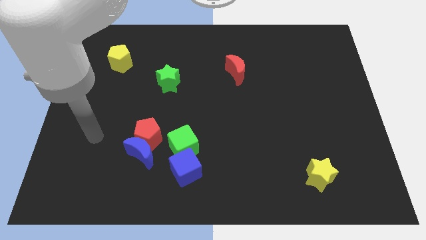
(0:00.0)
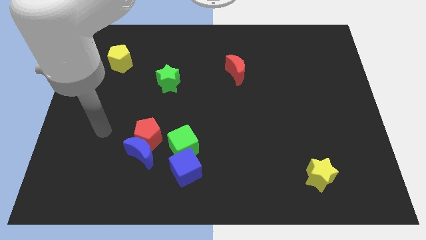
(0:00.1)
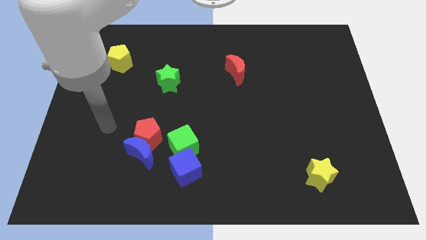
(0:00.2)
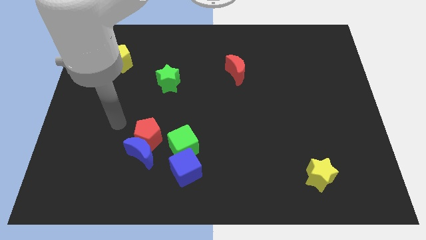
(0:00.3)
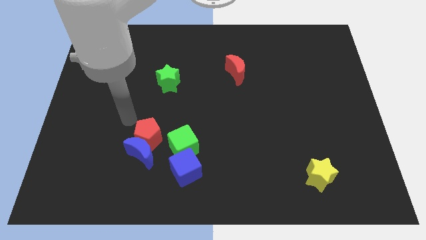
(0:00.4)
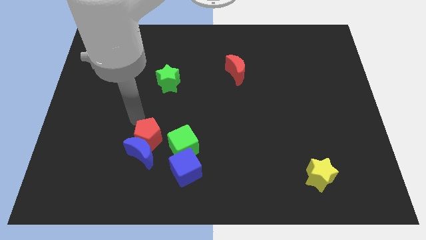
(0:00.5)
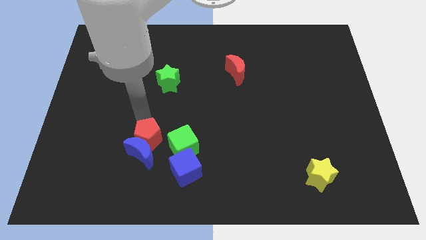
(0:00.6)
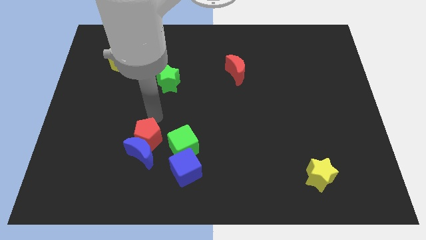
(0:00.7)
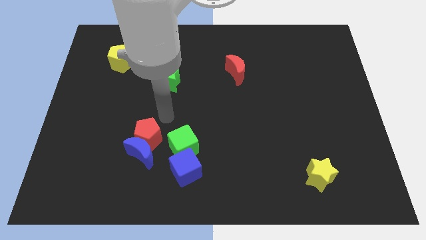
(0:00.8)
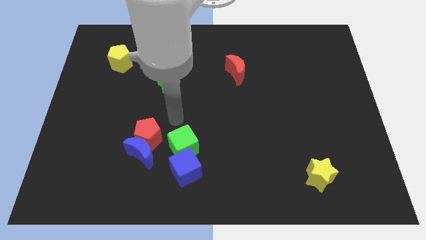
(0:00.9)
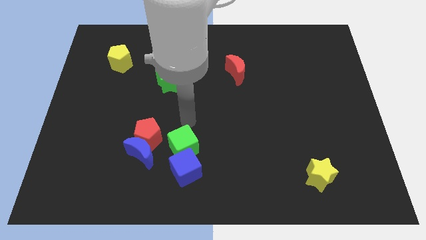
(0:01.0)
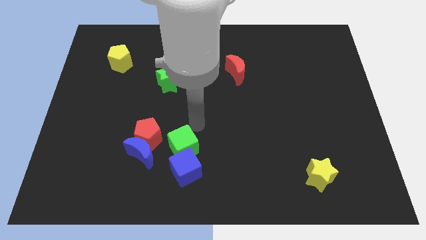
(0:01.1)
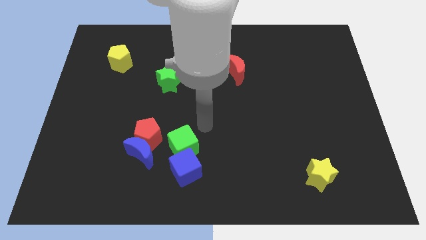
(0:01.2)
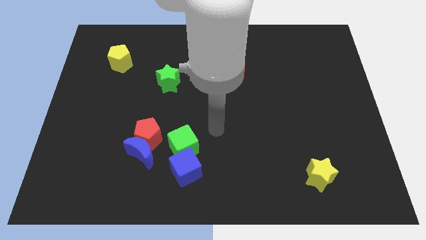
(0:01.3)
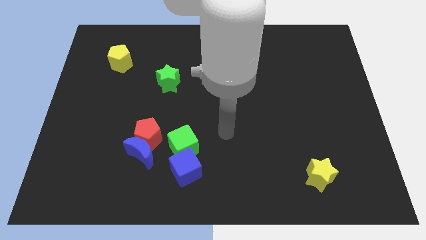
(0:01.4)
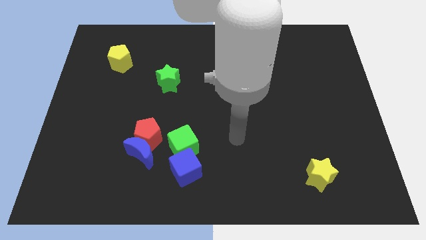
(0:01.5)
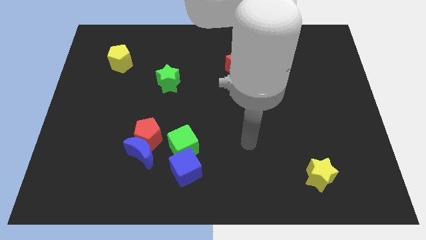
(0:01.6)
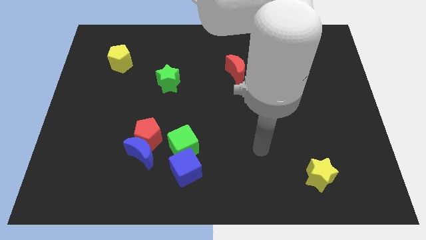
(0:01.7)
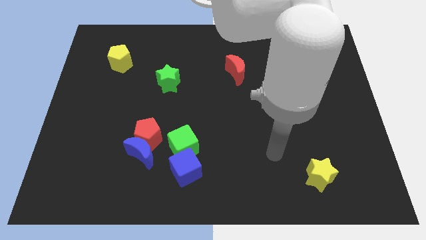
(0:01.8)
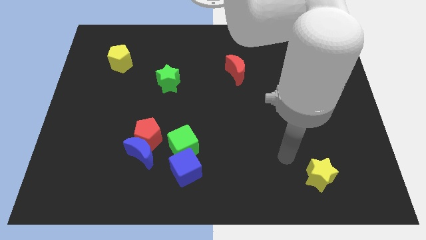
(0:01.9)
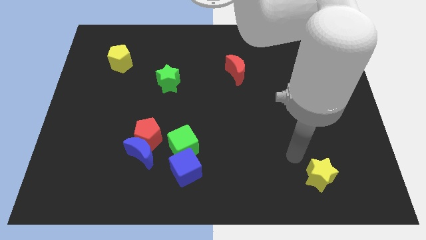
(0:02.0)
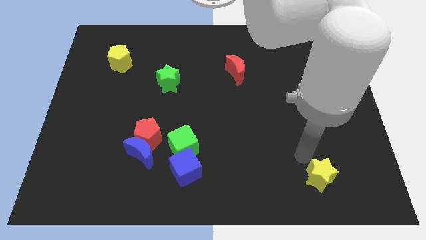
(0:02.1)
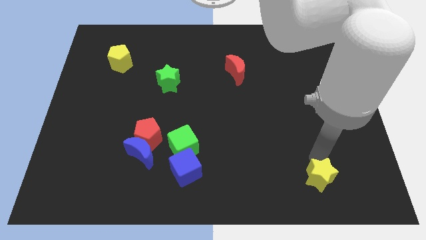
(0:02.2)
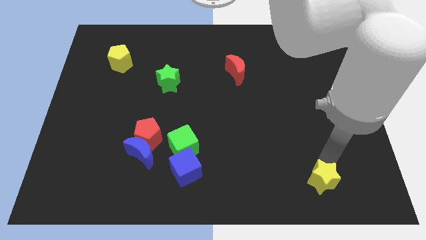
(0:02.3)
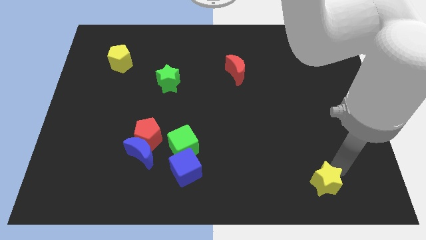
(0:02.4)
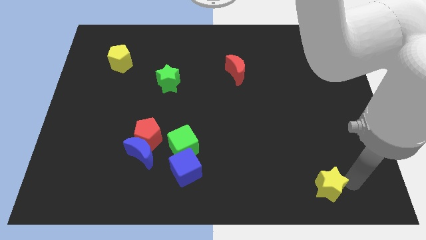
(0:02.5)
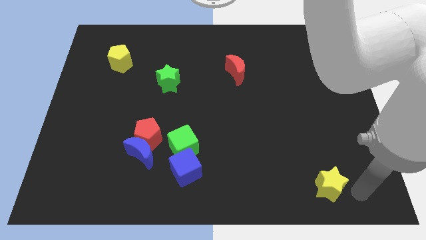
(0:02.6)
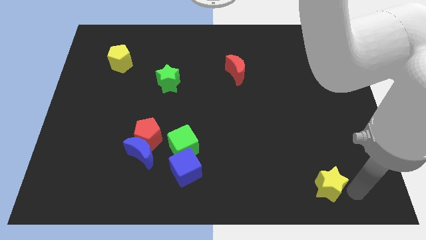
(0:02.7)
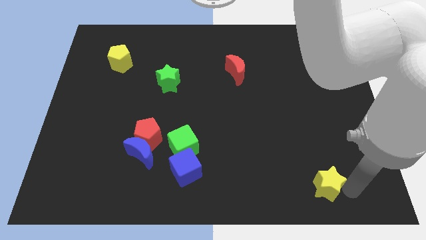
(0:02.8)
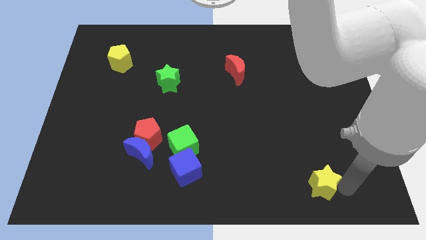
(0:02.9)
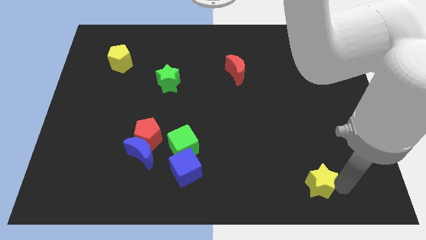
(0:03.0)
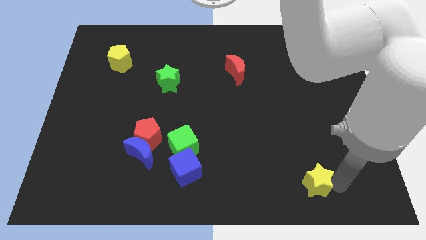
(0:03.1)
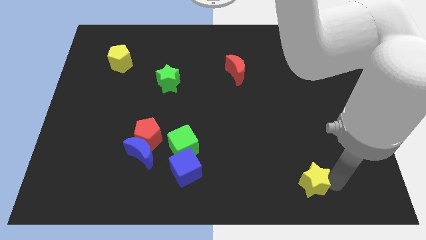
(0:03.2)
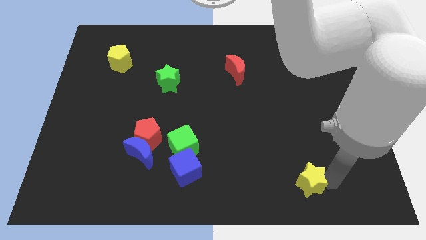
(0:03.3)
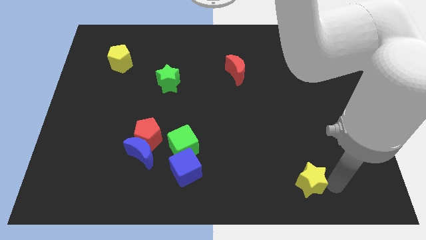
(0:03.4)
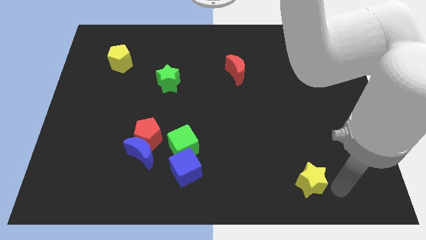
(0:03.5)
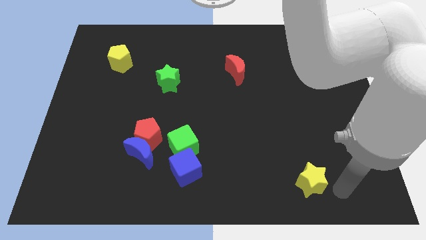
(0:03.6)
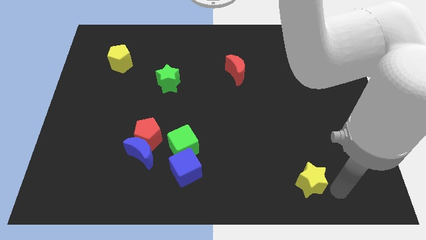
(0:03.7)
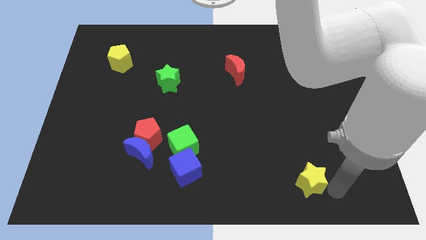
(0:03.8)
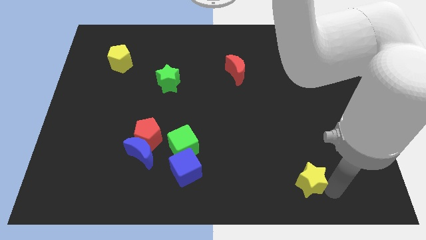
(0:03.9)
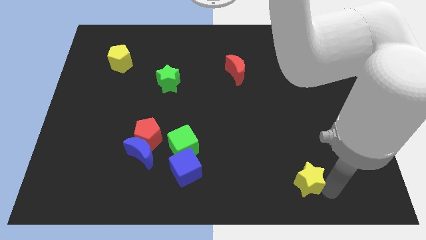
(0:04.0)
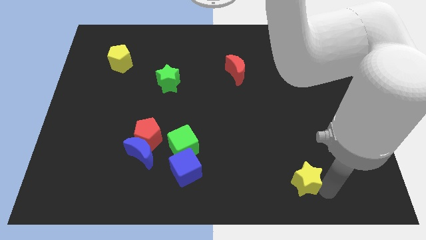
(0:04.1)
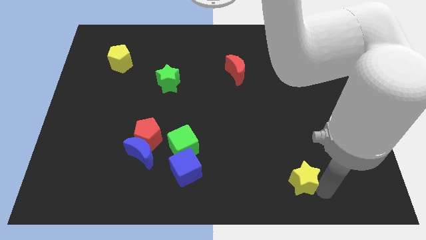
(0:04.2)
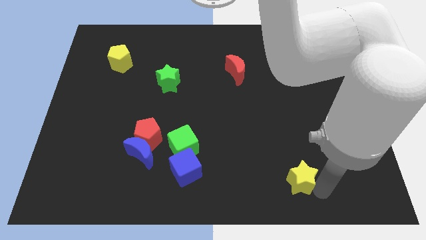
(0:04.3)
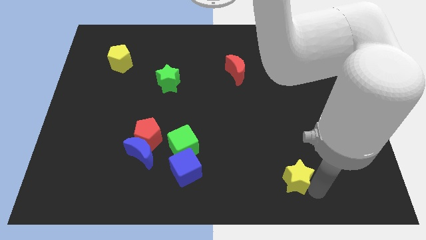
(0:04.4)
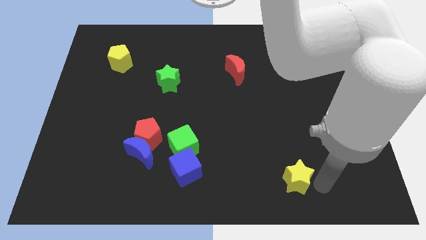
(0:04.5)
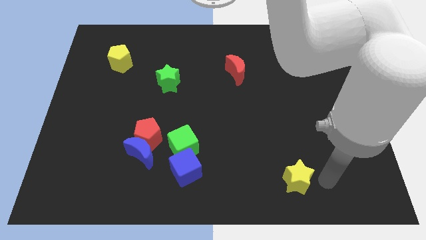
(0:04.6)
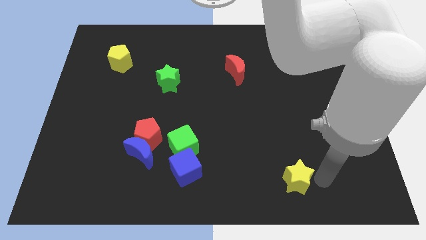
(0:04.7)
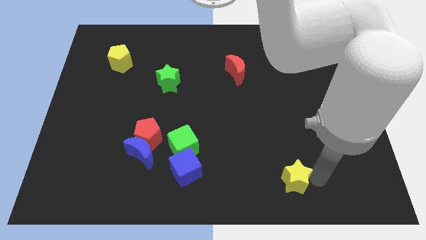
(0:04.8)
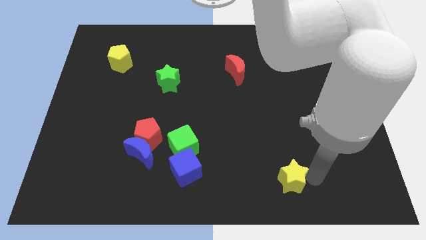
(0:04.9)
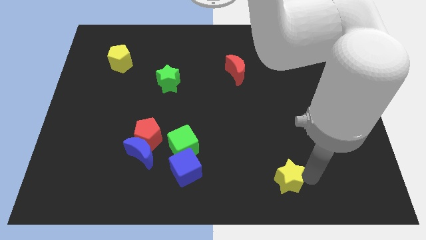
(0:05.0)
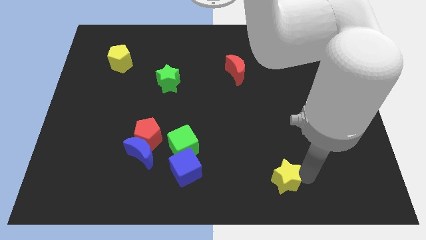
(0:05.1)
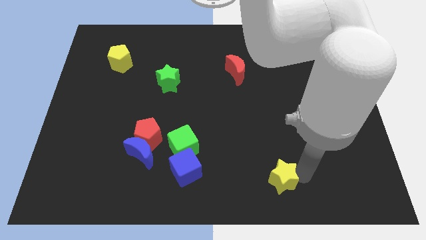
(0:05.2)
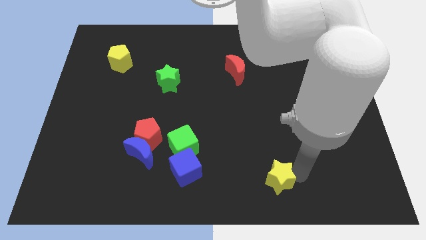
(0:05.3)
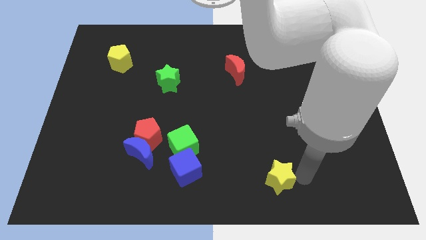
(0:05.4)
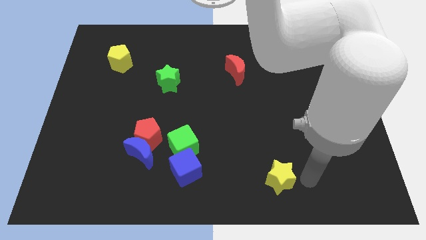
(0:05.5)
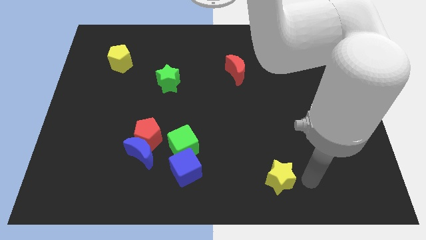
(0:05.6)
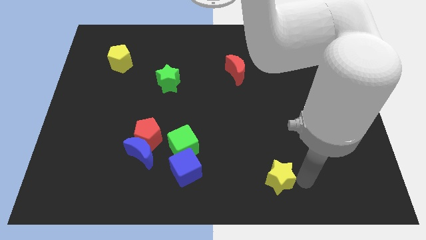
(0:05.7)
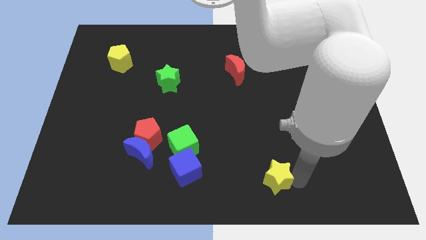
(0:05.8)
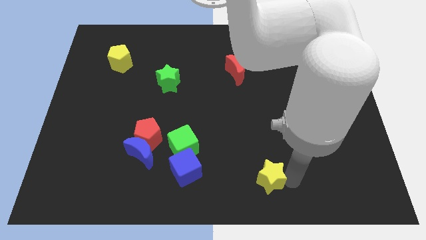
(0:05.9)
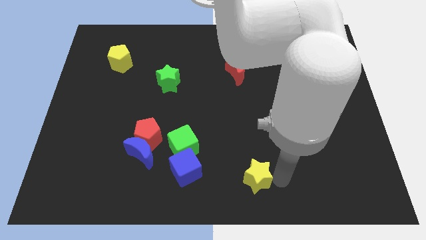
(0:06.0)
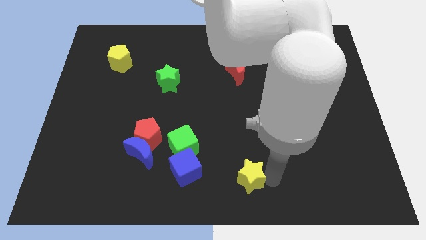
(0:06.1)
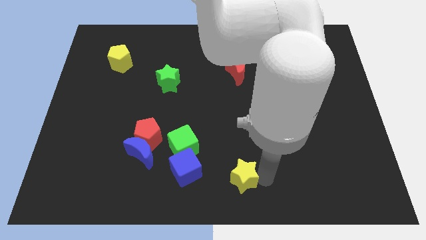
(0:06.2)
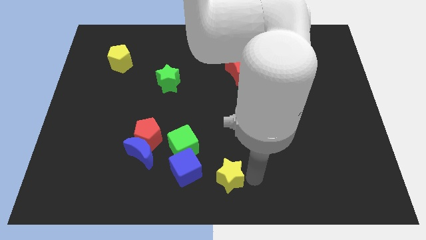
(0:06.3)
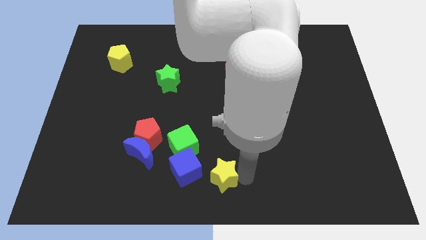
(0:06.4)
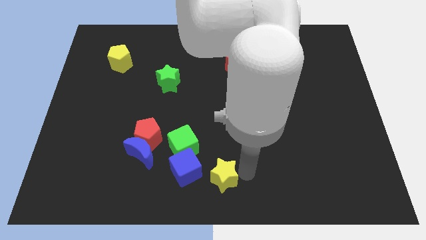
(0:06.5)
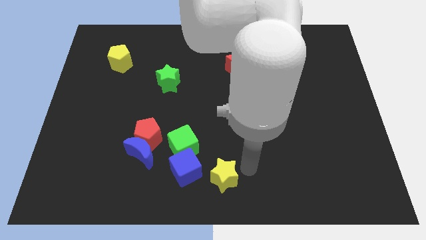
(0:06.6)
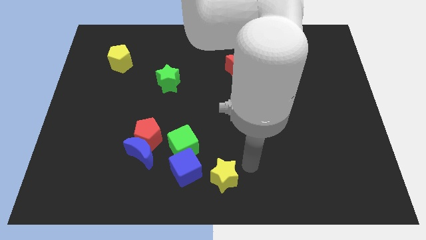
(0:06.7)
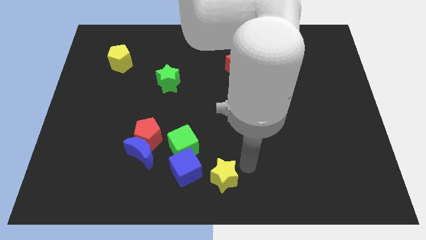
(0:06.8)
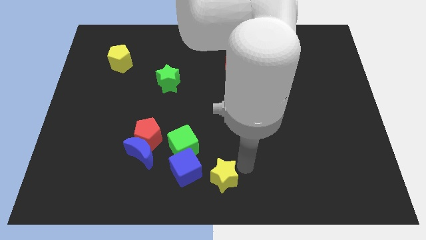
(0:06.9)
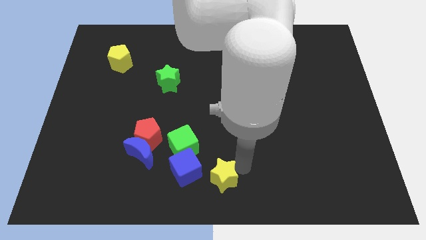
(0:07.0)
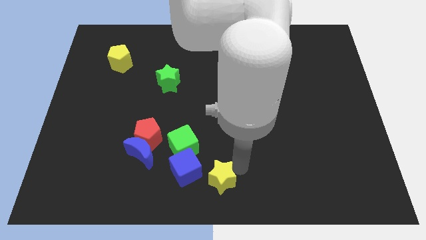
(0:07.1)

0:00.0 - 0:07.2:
move the yellow star left

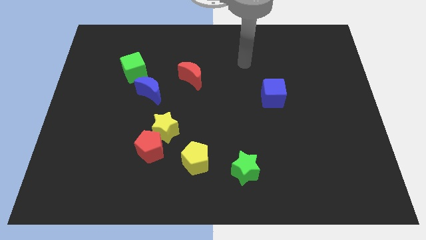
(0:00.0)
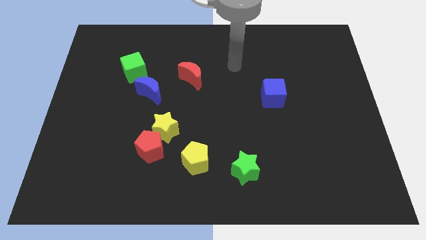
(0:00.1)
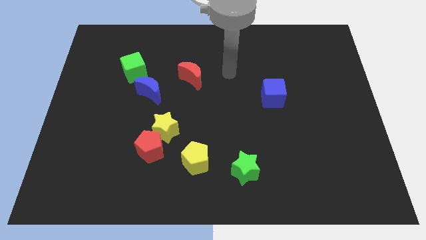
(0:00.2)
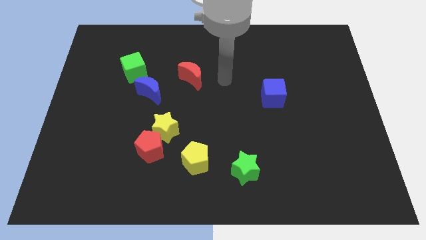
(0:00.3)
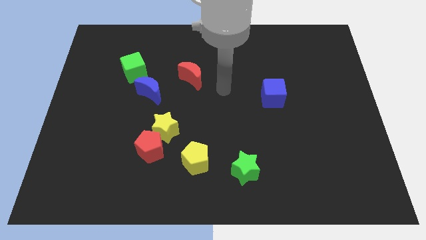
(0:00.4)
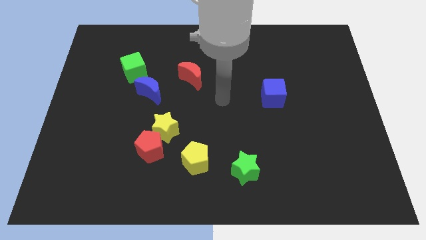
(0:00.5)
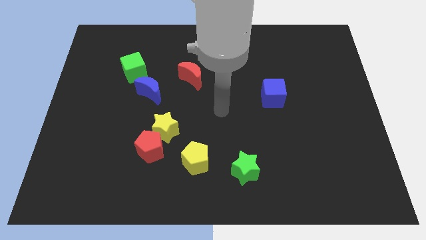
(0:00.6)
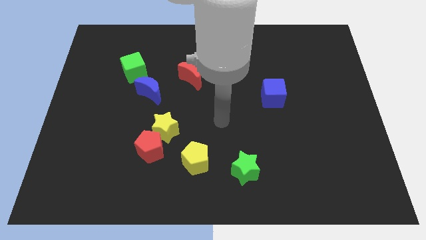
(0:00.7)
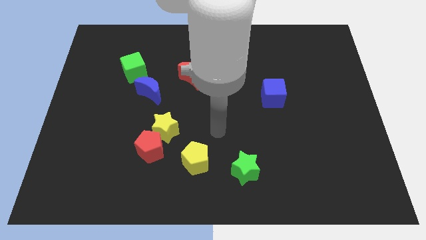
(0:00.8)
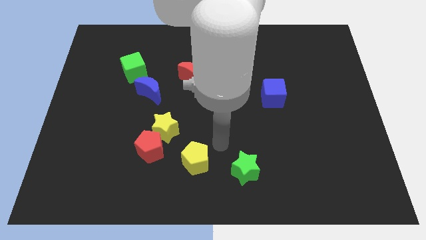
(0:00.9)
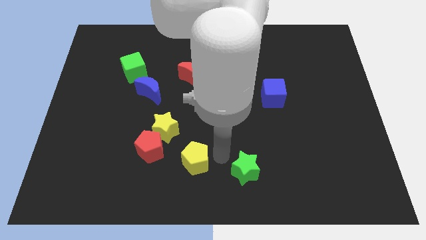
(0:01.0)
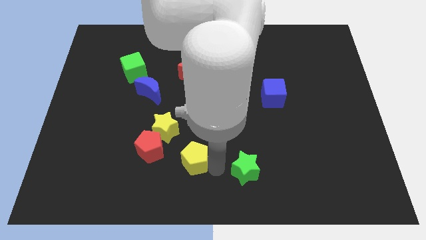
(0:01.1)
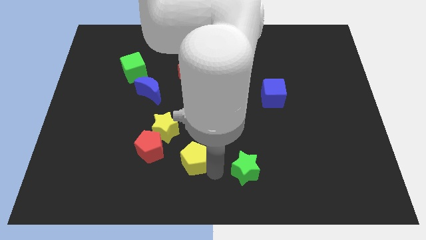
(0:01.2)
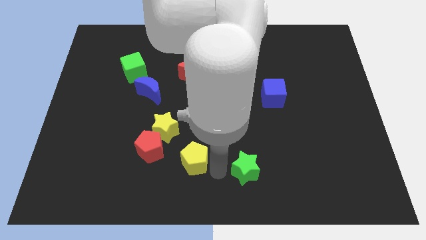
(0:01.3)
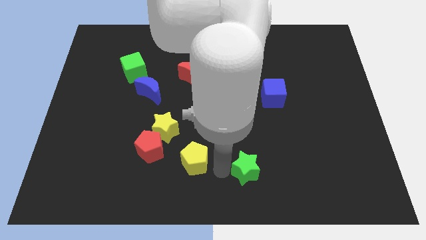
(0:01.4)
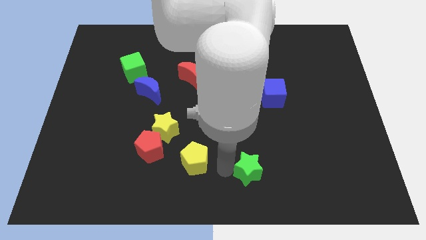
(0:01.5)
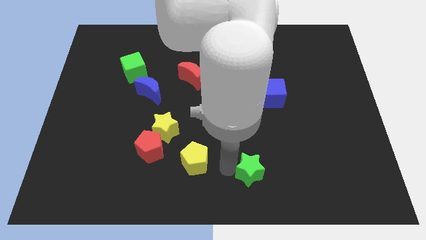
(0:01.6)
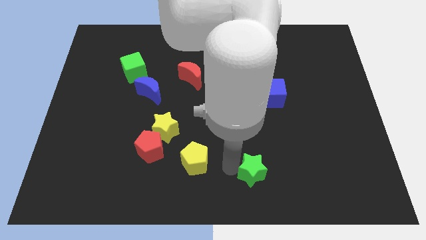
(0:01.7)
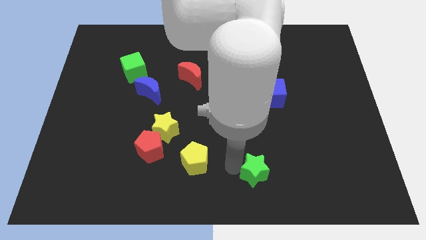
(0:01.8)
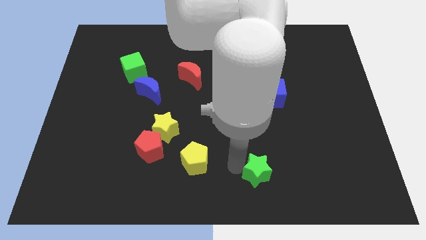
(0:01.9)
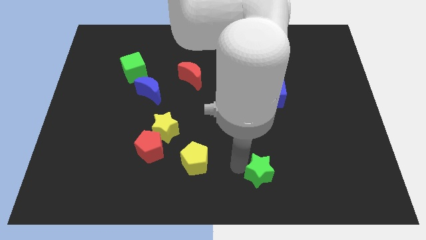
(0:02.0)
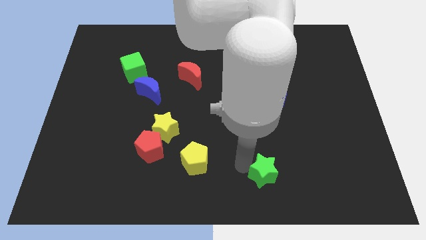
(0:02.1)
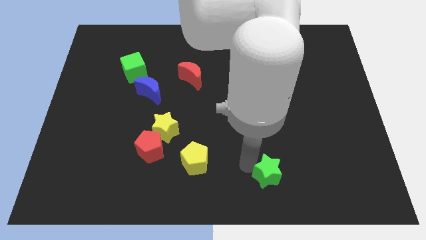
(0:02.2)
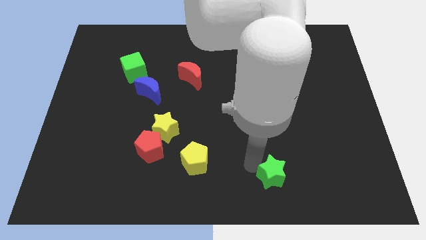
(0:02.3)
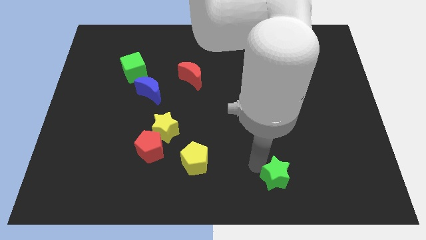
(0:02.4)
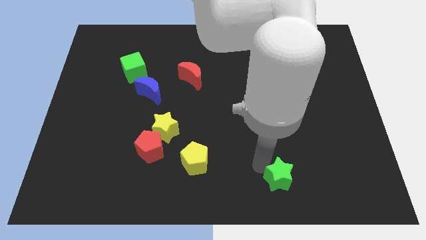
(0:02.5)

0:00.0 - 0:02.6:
push the green star a little to the right
